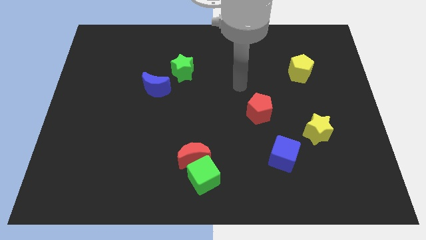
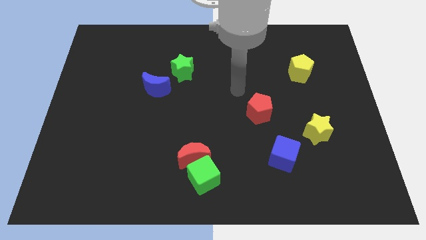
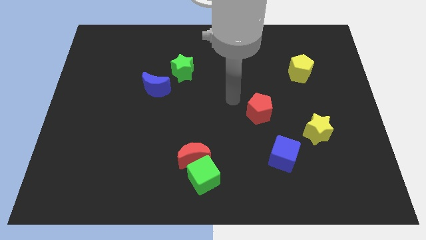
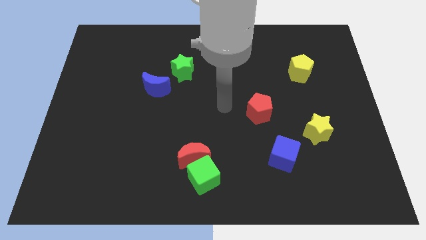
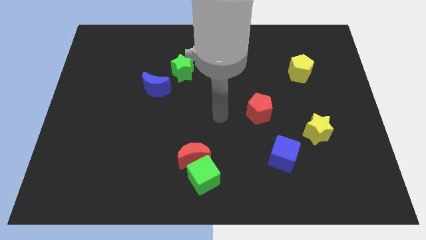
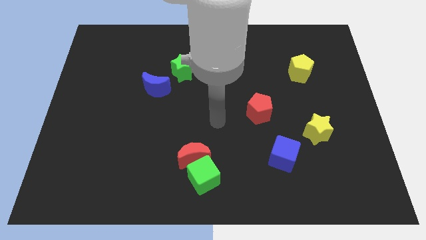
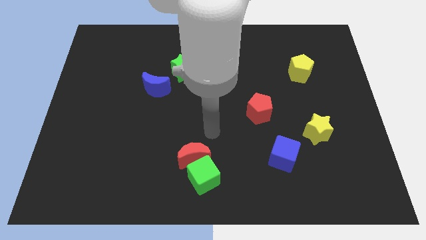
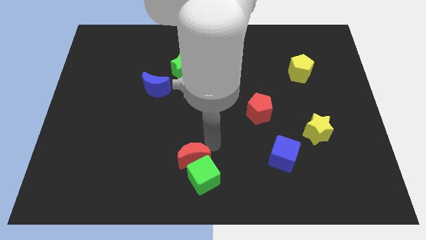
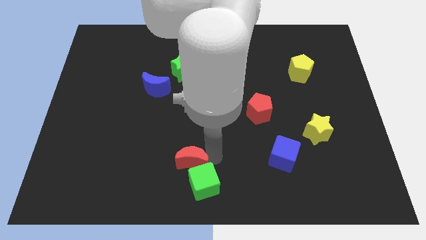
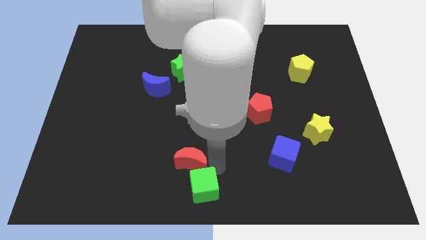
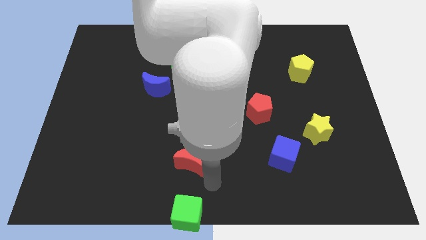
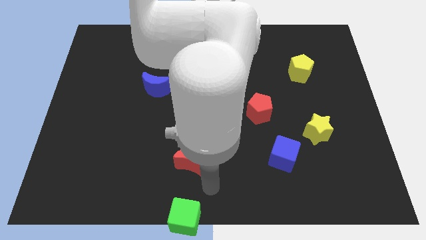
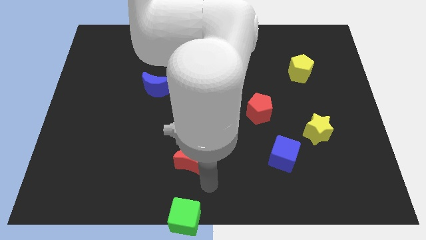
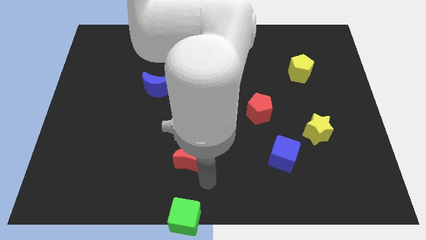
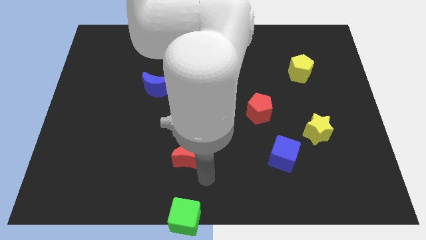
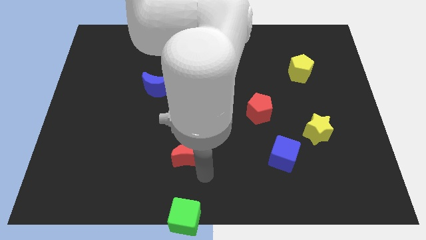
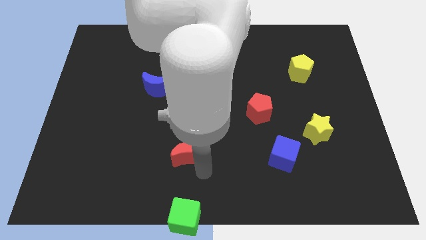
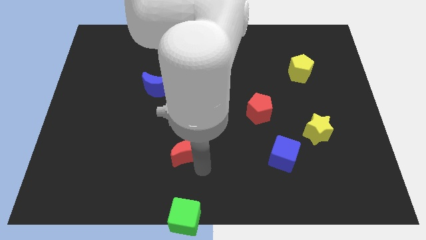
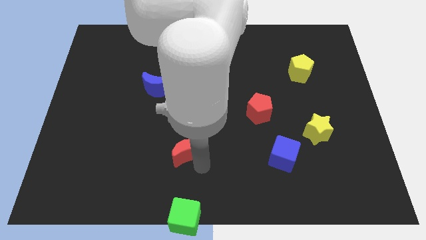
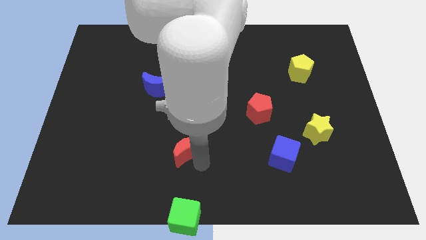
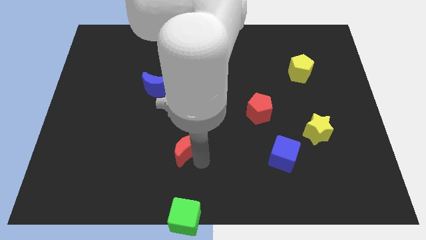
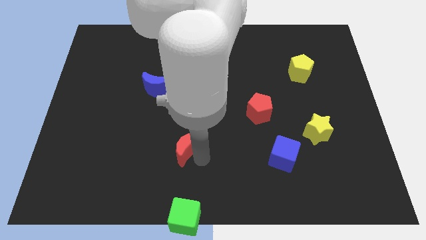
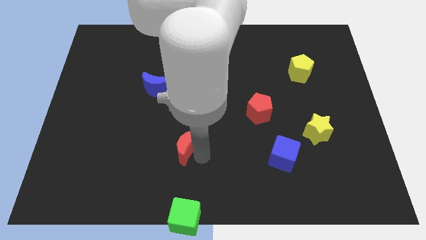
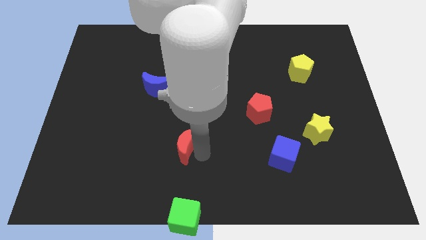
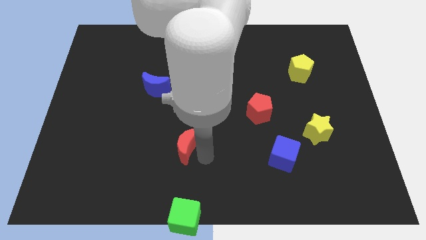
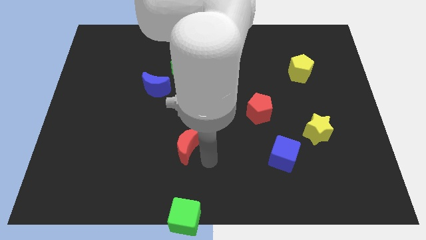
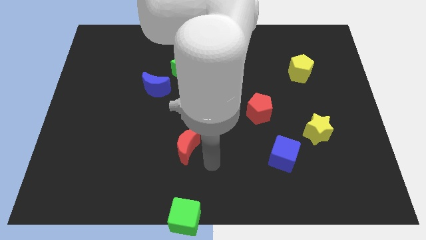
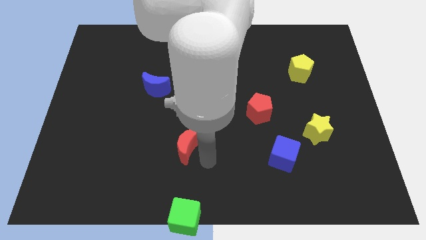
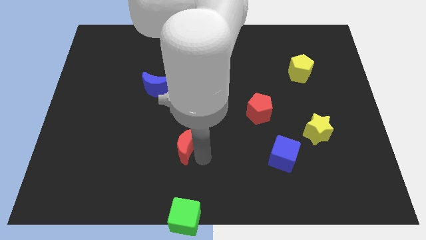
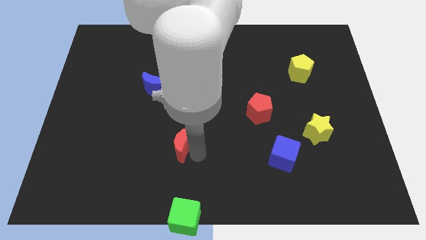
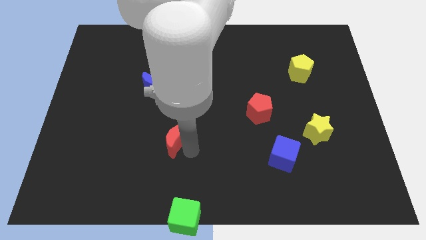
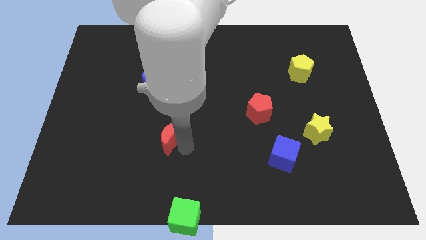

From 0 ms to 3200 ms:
push the red moon upwards and left diagonally somewhat

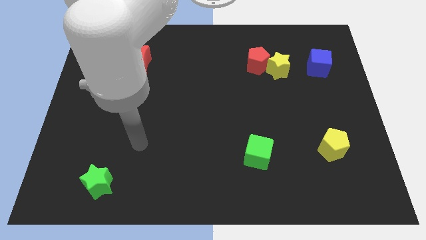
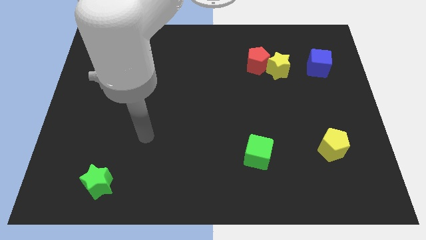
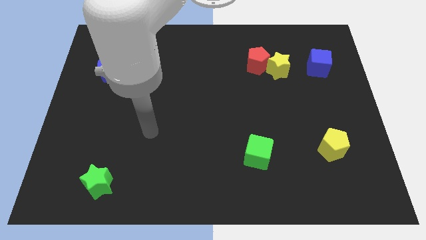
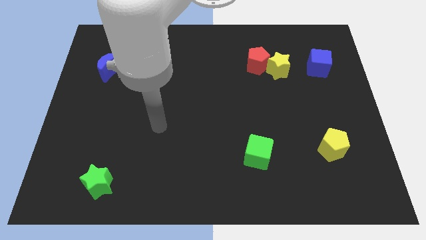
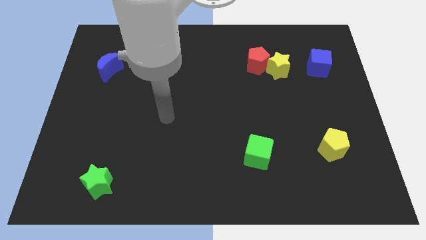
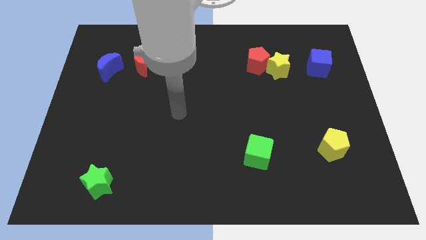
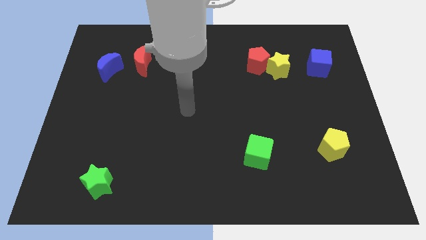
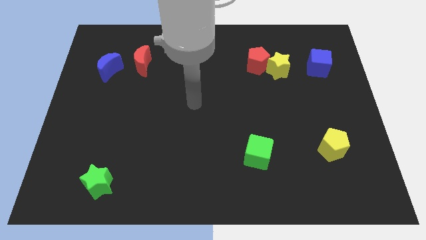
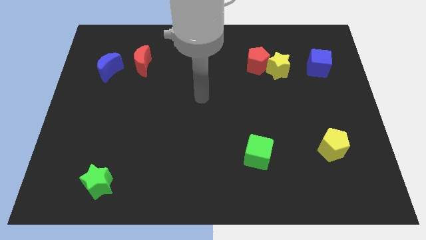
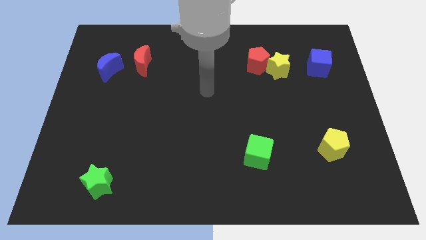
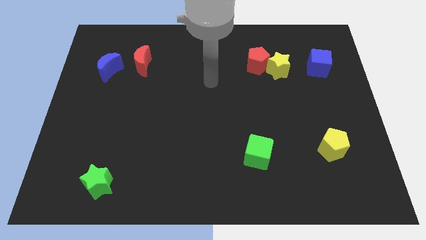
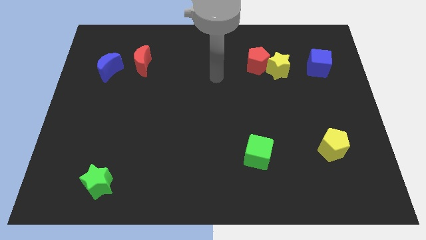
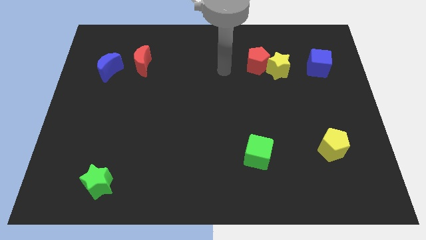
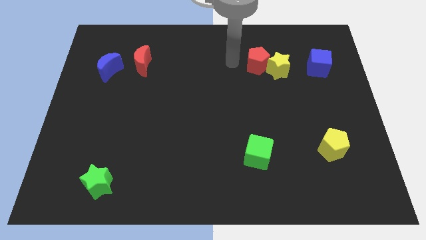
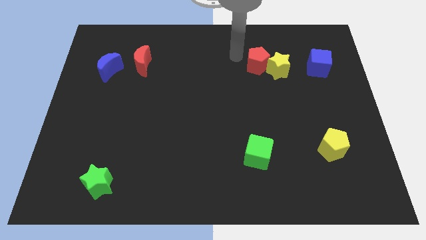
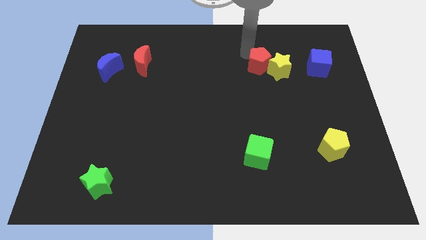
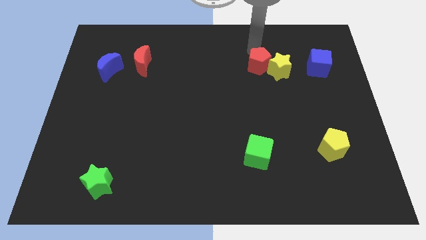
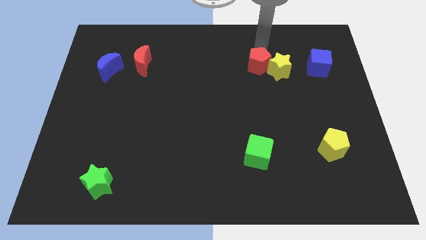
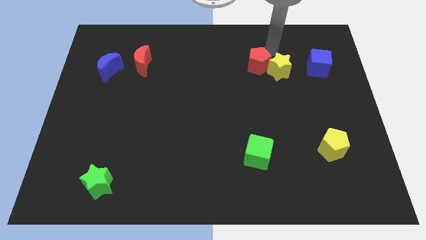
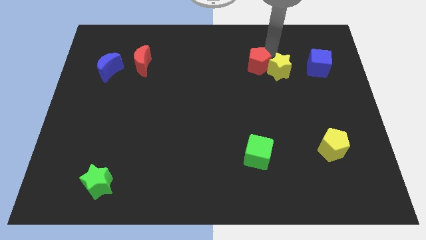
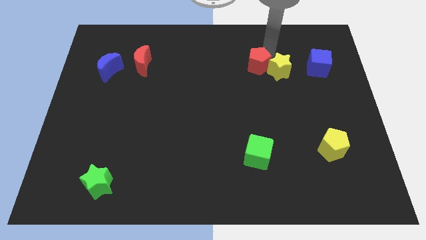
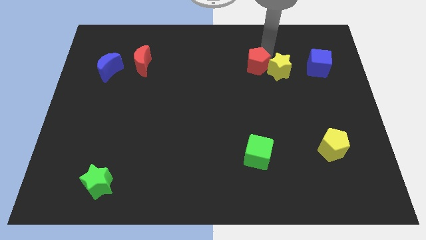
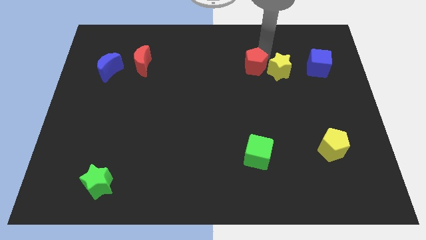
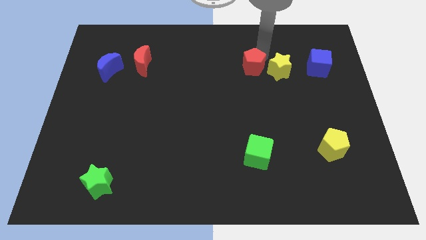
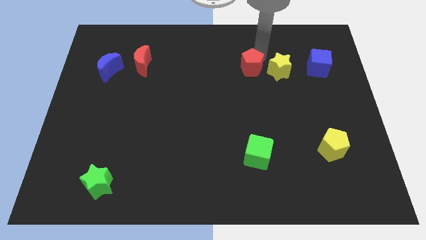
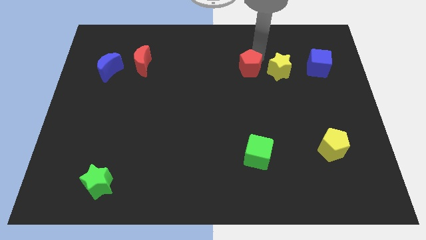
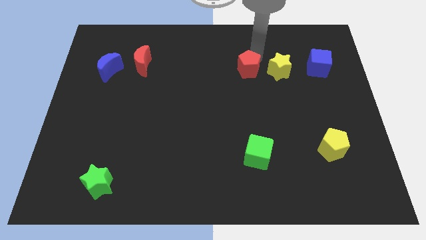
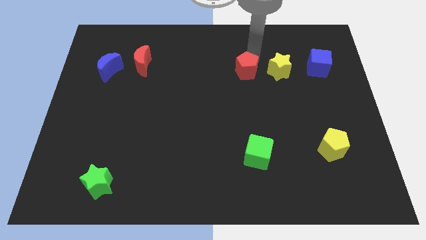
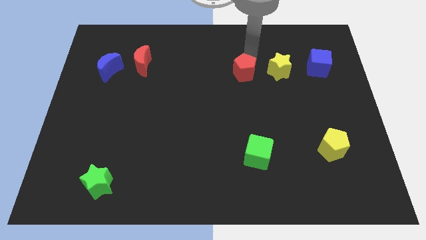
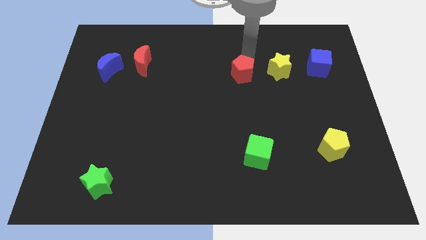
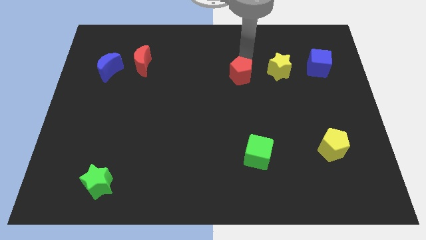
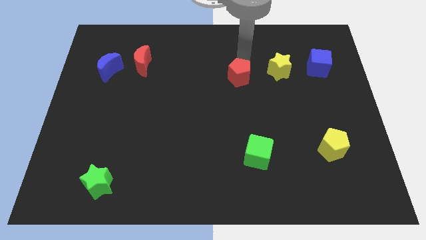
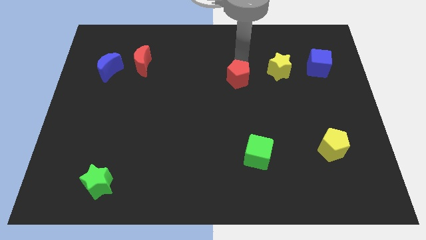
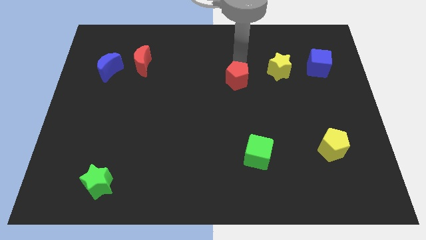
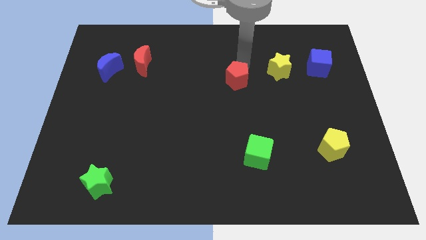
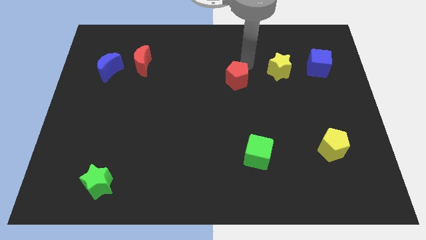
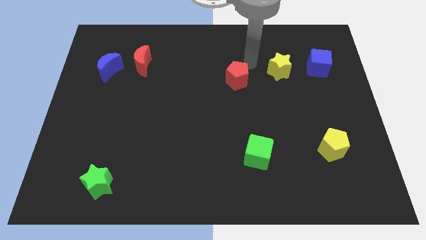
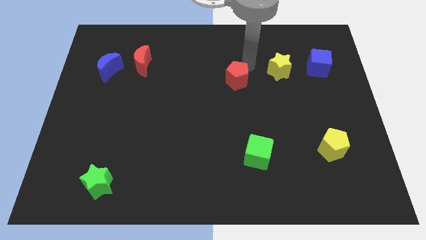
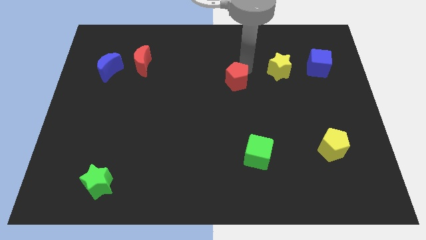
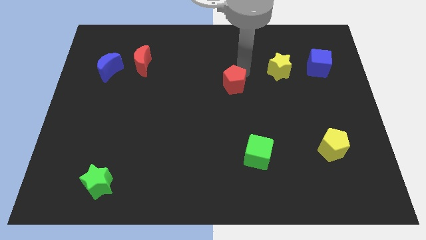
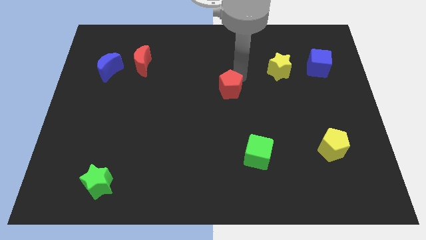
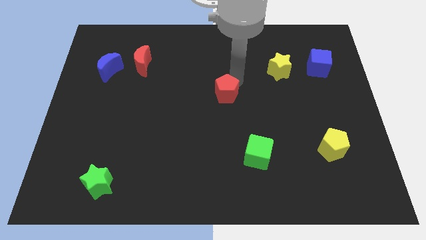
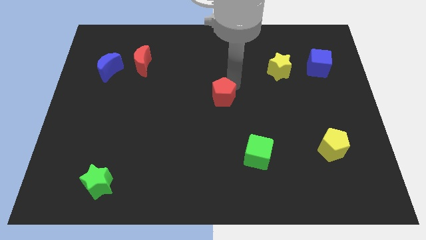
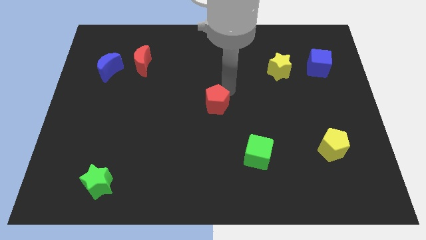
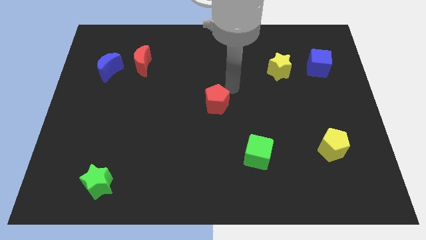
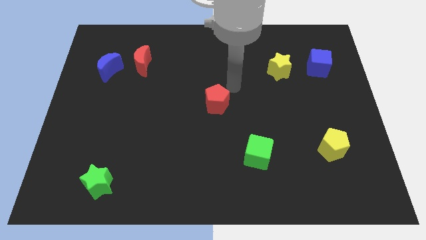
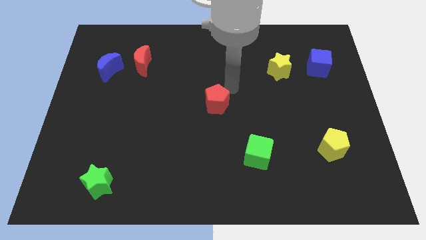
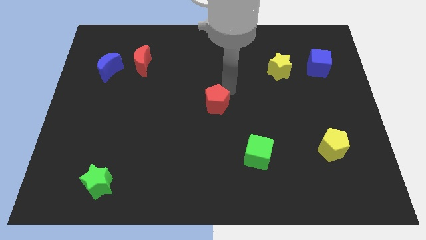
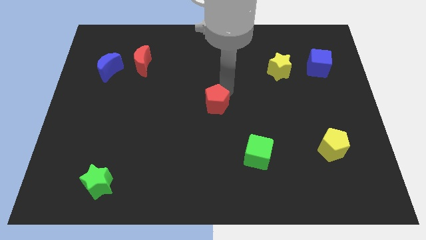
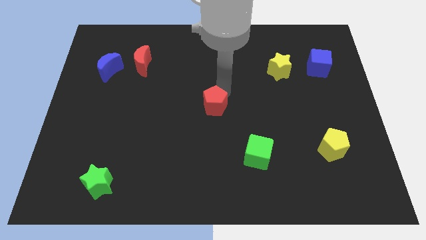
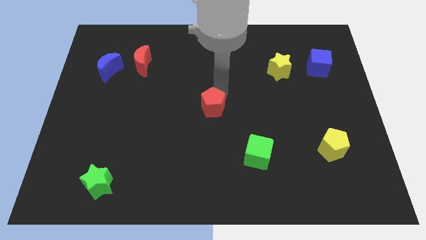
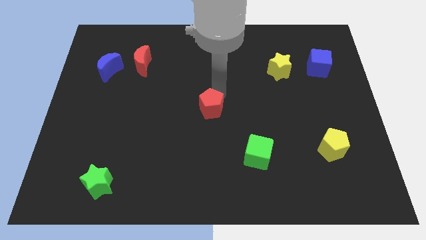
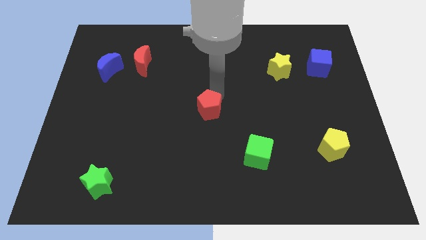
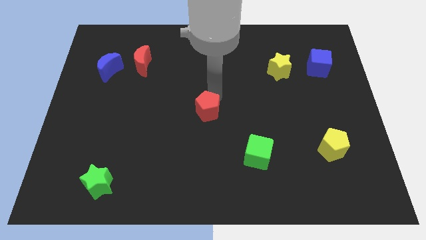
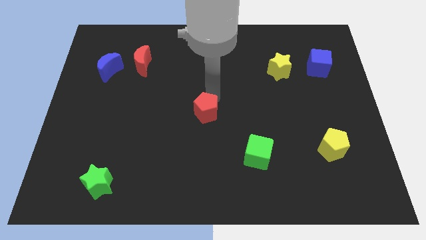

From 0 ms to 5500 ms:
push the red pentagon downwards and left
